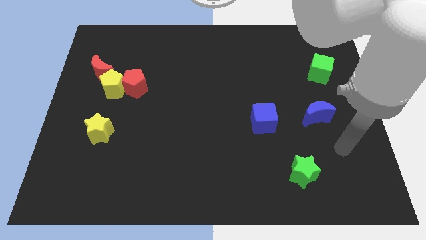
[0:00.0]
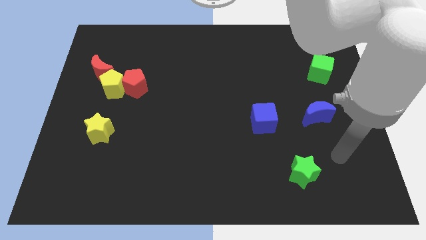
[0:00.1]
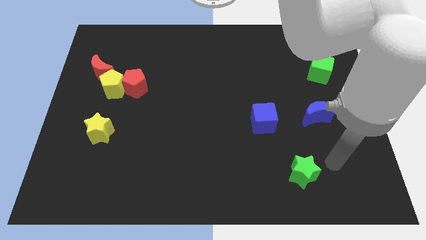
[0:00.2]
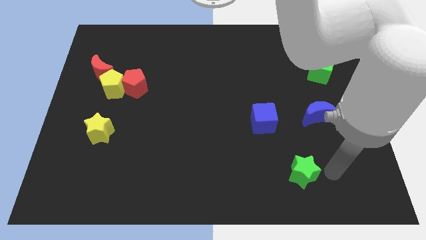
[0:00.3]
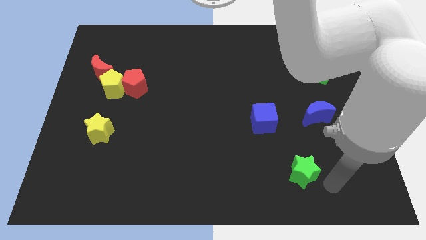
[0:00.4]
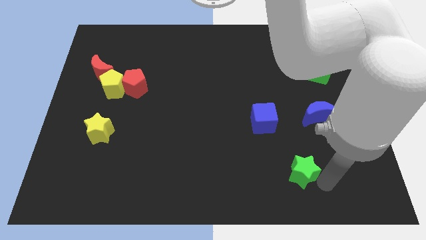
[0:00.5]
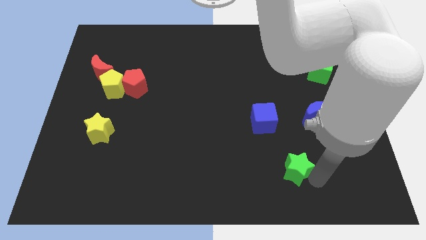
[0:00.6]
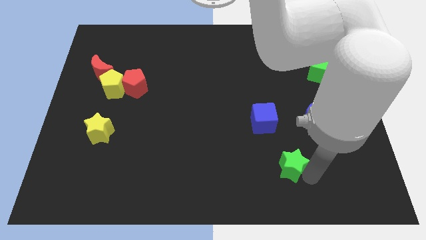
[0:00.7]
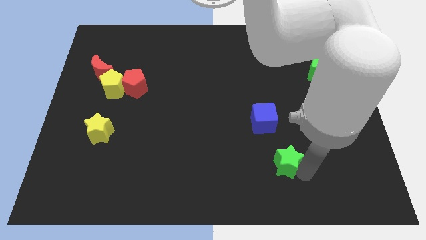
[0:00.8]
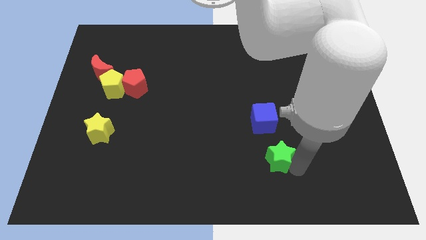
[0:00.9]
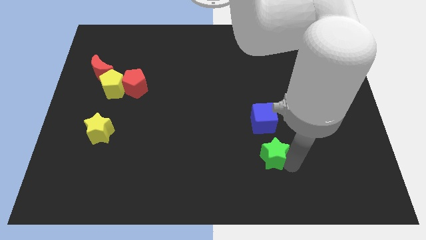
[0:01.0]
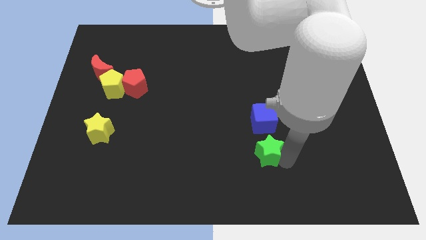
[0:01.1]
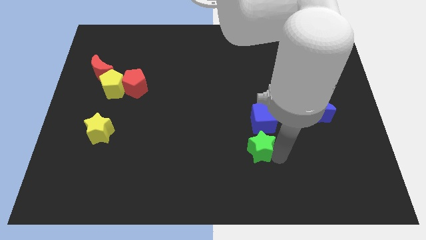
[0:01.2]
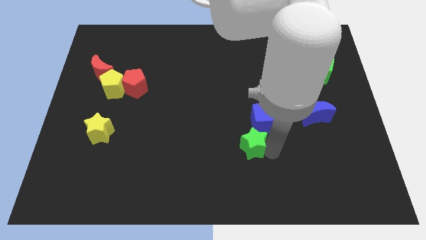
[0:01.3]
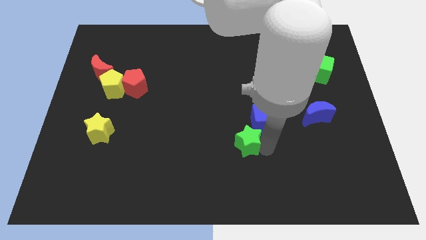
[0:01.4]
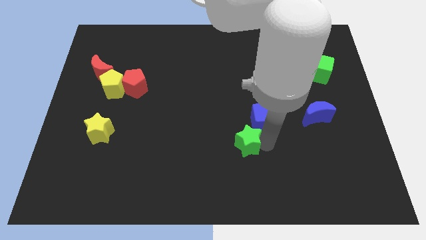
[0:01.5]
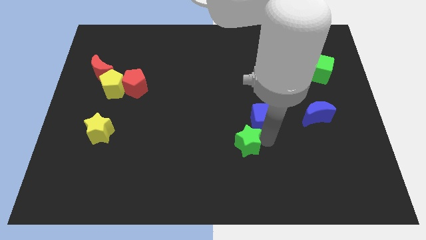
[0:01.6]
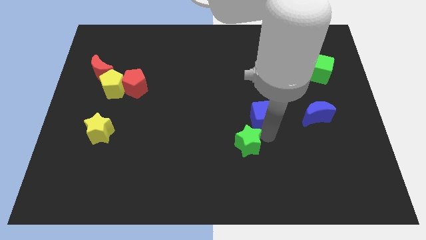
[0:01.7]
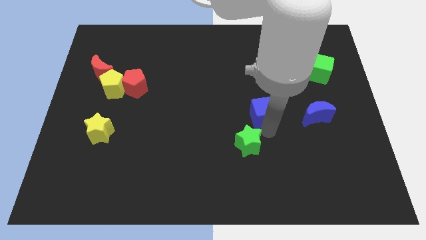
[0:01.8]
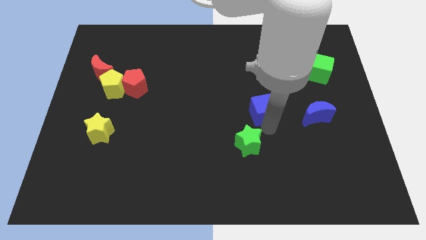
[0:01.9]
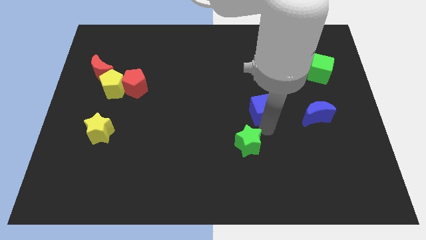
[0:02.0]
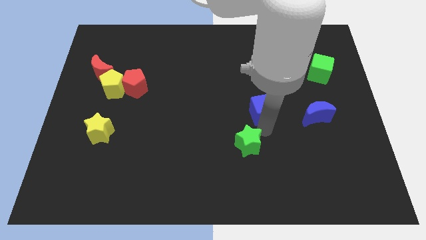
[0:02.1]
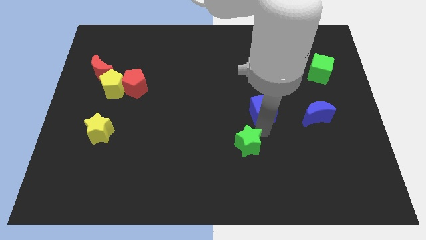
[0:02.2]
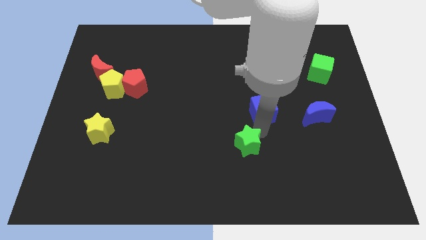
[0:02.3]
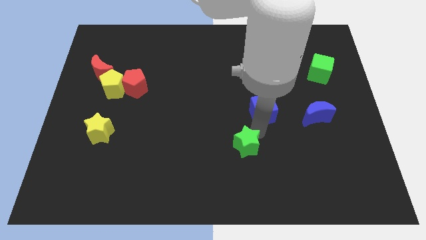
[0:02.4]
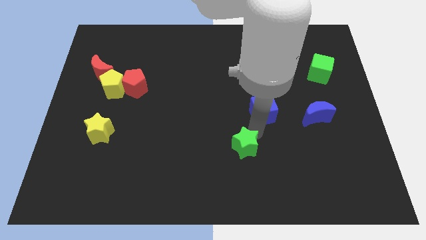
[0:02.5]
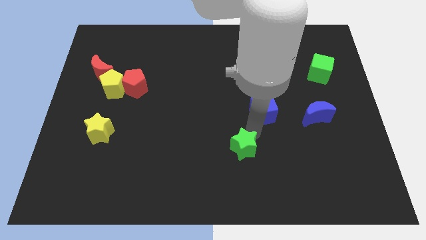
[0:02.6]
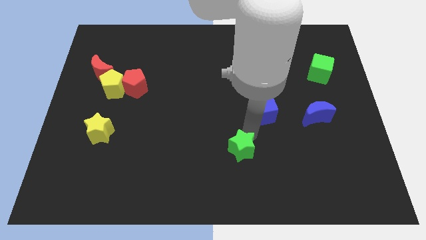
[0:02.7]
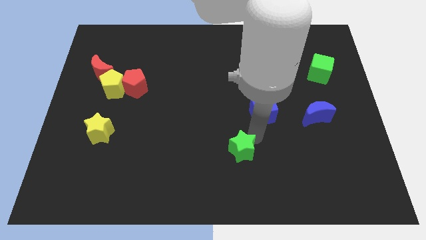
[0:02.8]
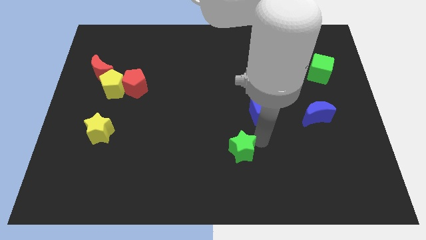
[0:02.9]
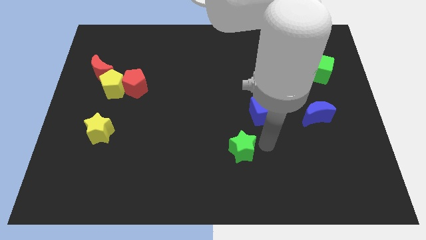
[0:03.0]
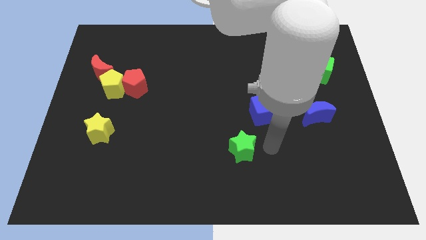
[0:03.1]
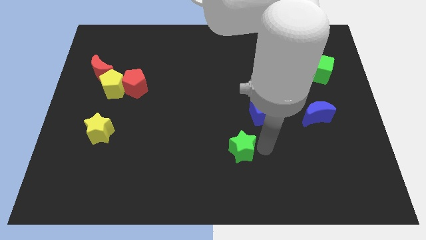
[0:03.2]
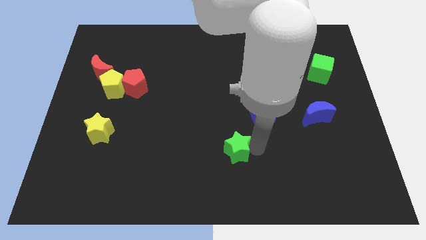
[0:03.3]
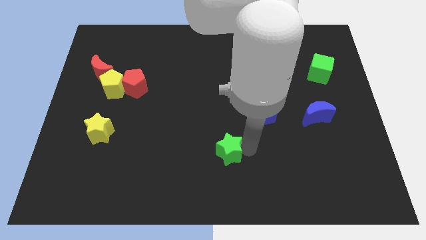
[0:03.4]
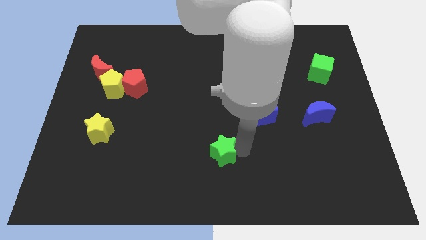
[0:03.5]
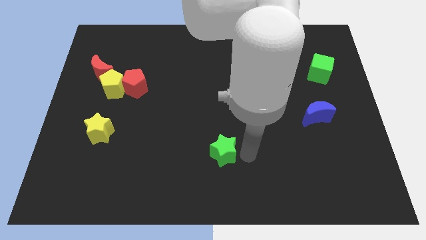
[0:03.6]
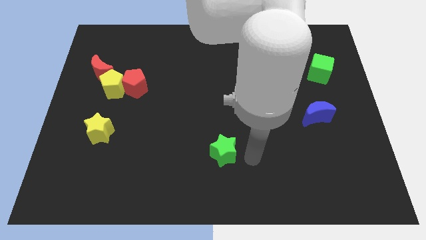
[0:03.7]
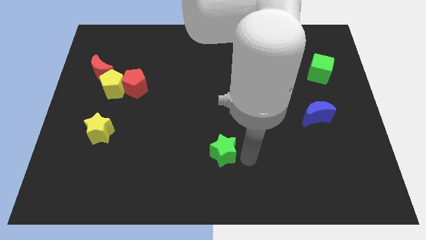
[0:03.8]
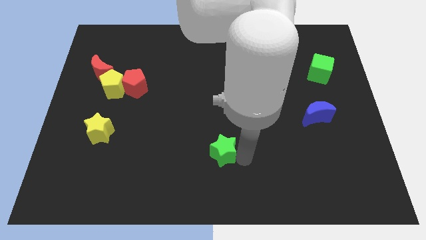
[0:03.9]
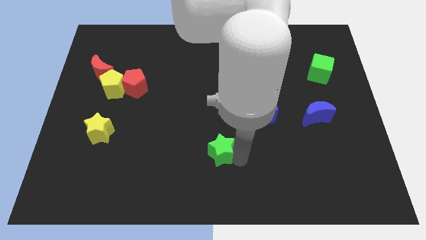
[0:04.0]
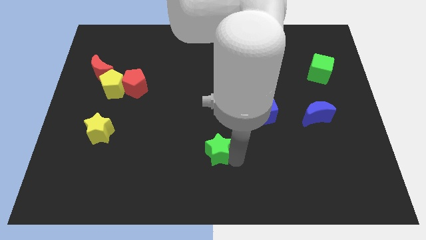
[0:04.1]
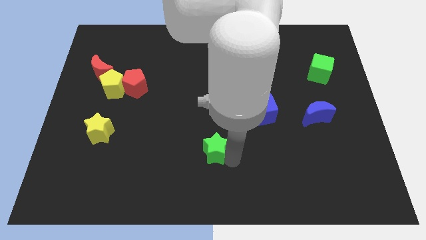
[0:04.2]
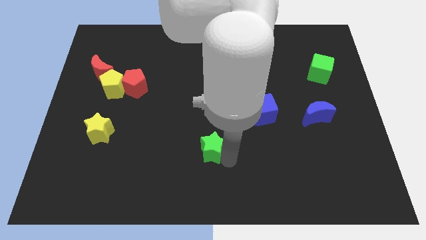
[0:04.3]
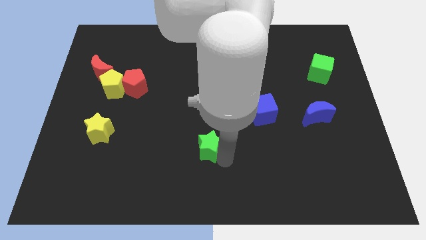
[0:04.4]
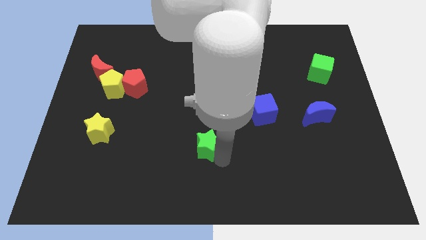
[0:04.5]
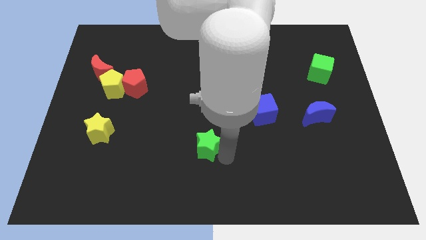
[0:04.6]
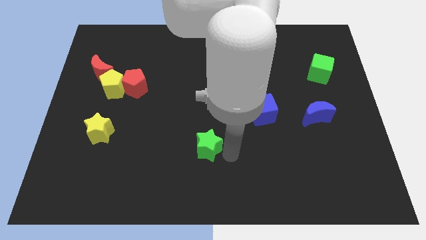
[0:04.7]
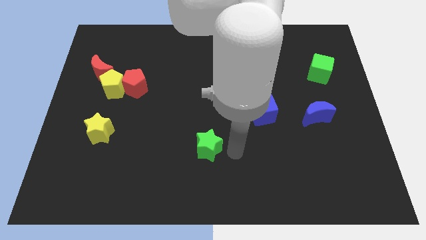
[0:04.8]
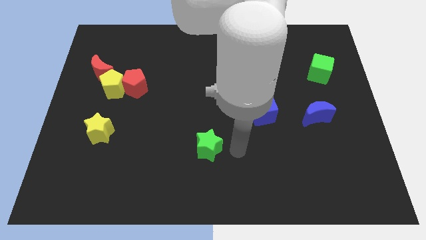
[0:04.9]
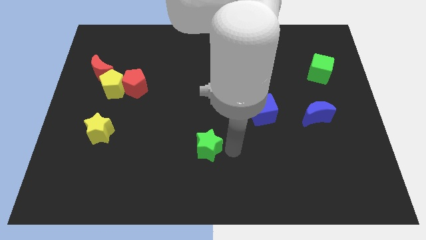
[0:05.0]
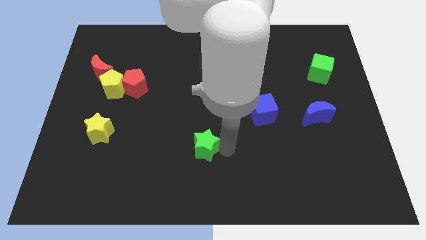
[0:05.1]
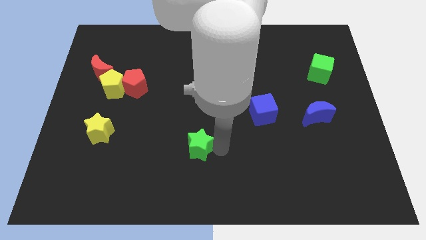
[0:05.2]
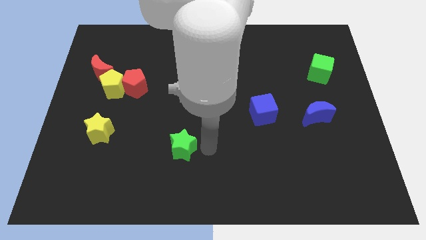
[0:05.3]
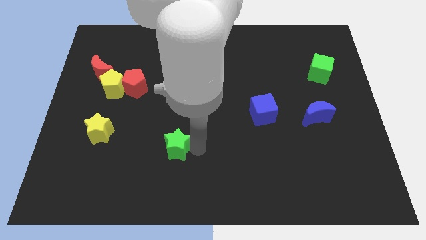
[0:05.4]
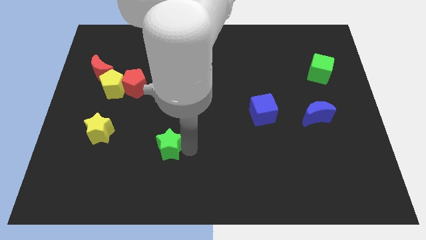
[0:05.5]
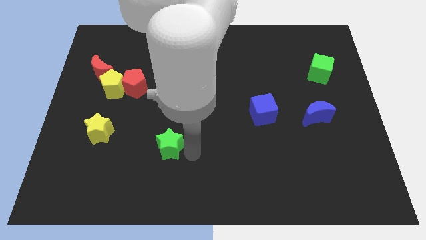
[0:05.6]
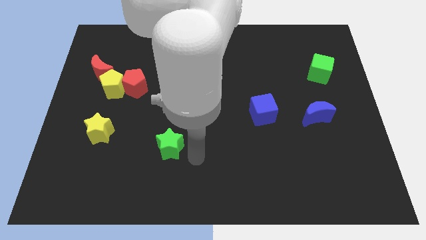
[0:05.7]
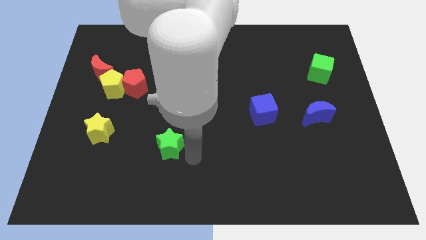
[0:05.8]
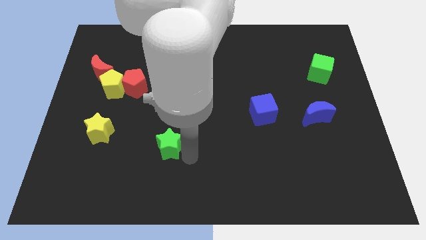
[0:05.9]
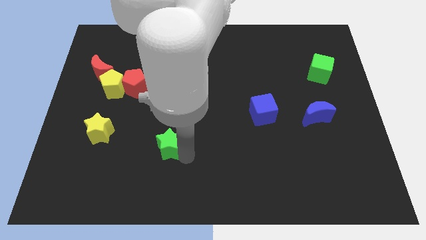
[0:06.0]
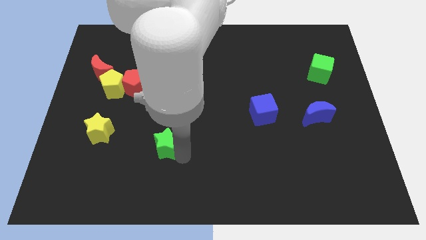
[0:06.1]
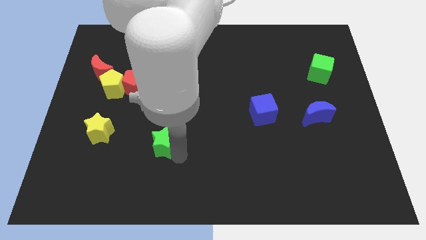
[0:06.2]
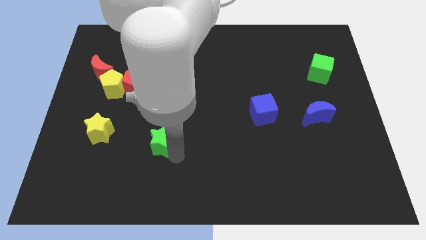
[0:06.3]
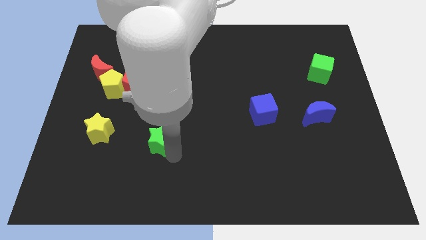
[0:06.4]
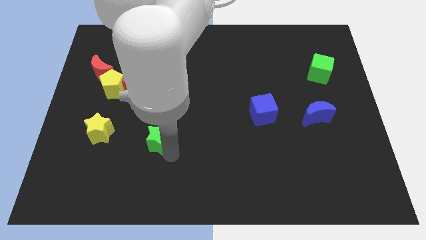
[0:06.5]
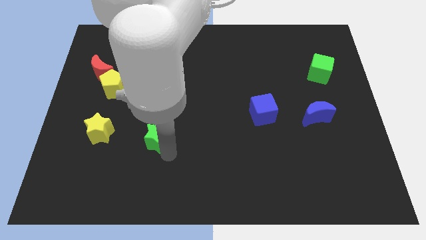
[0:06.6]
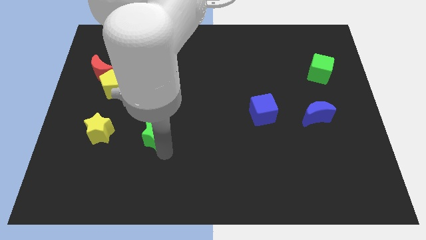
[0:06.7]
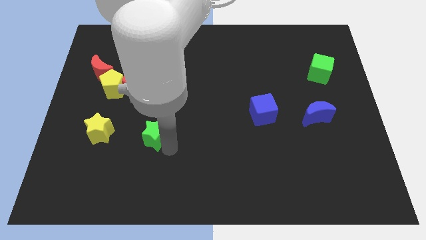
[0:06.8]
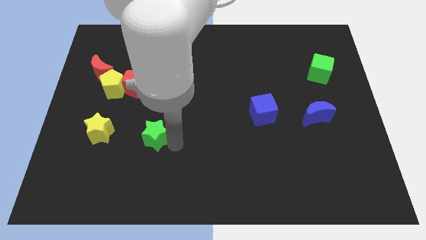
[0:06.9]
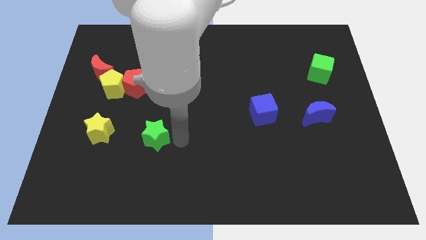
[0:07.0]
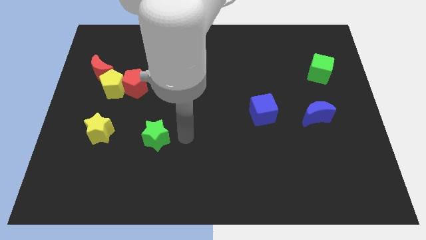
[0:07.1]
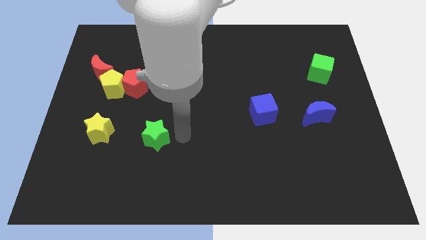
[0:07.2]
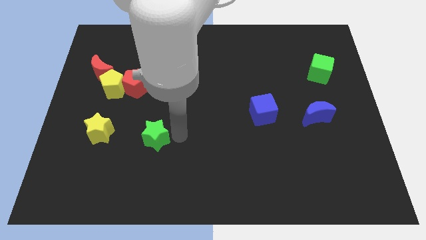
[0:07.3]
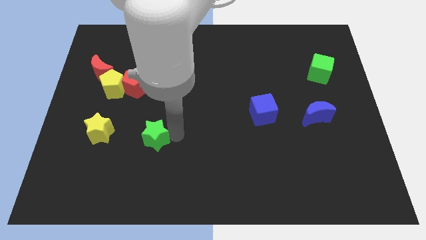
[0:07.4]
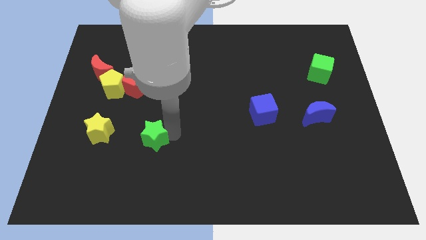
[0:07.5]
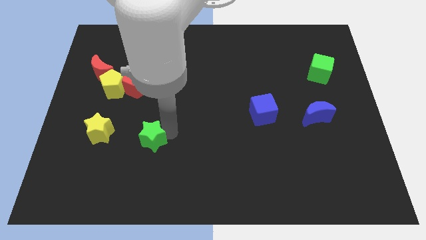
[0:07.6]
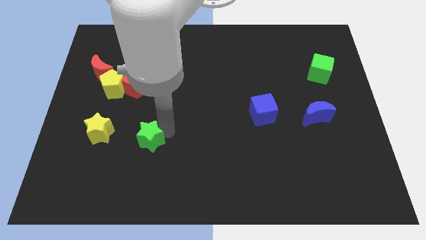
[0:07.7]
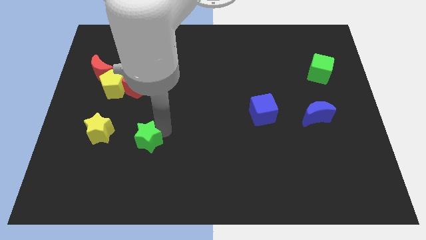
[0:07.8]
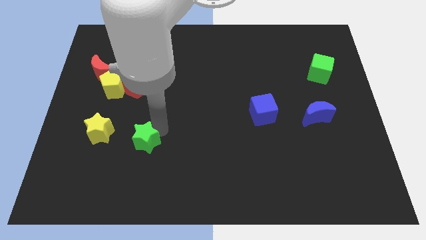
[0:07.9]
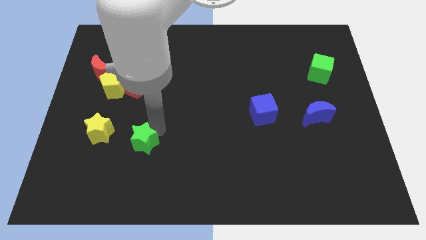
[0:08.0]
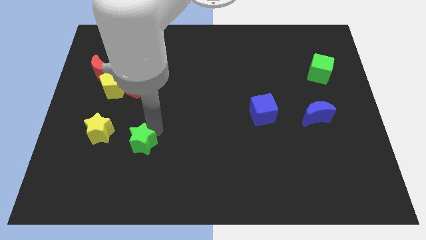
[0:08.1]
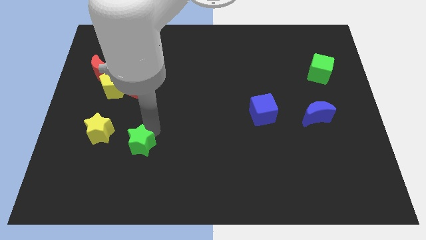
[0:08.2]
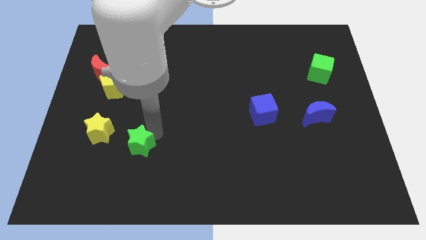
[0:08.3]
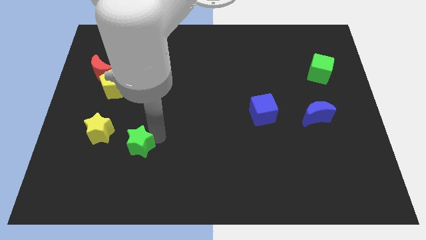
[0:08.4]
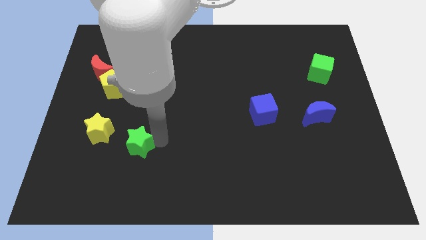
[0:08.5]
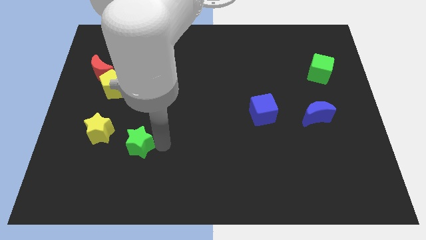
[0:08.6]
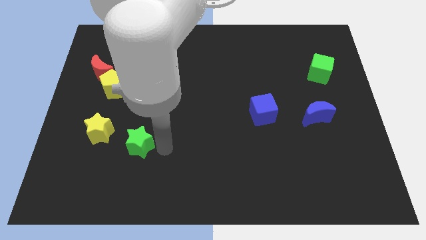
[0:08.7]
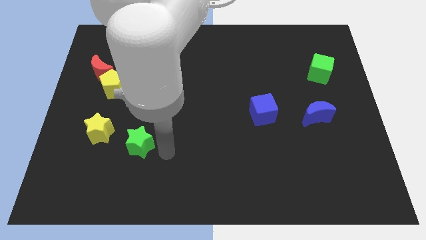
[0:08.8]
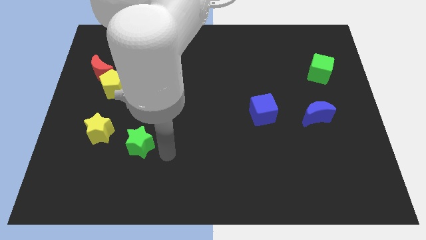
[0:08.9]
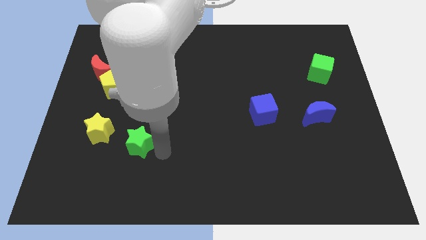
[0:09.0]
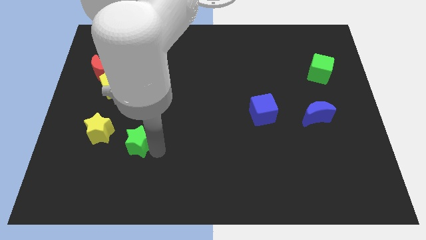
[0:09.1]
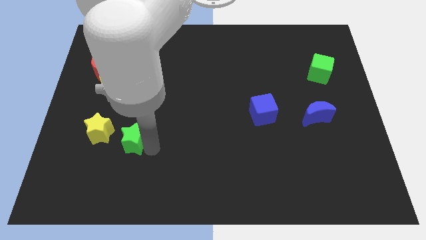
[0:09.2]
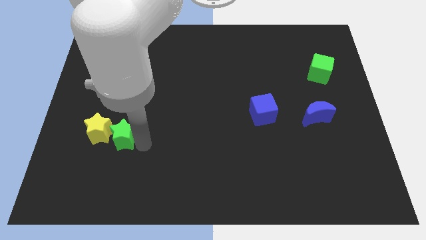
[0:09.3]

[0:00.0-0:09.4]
slide the green star towards the yellow star
